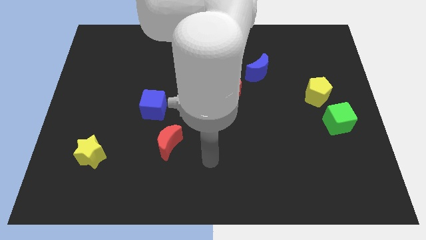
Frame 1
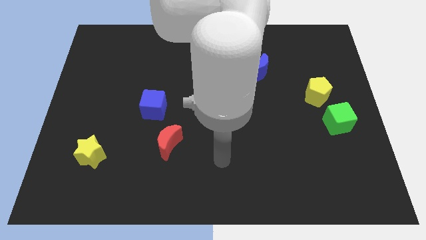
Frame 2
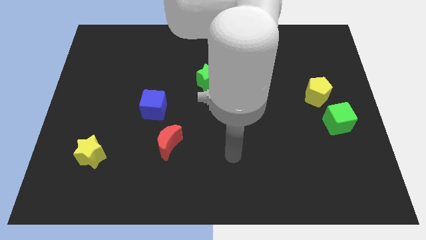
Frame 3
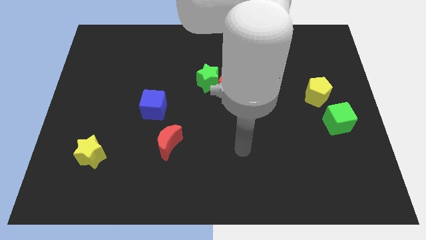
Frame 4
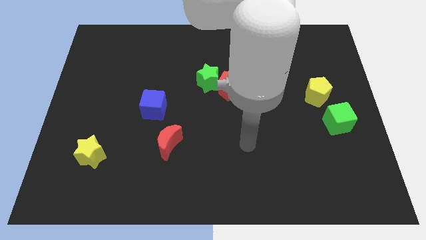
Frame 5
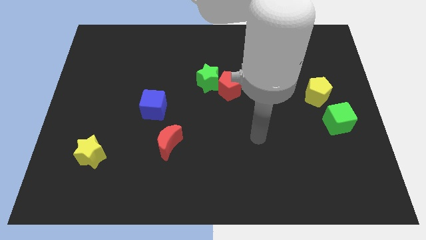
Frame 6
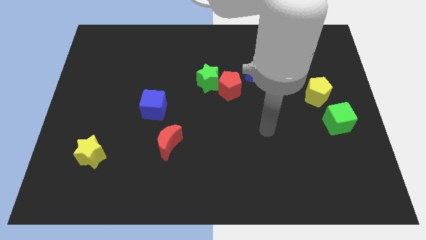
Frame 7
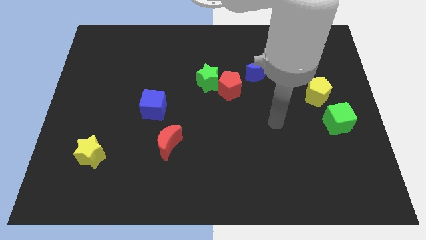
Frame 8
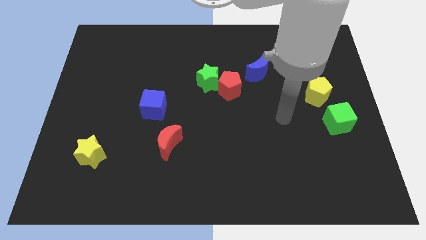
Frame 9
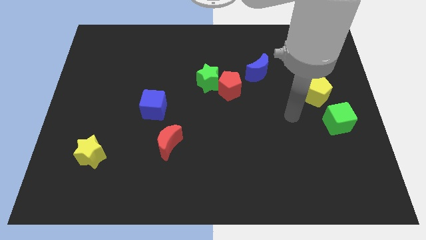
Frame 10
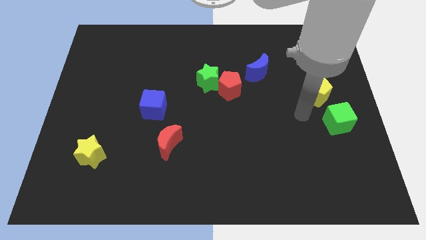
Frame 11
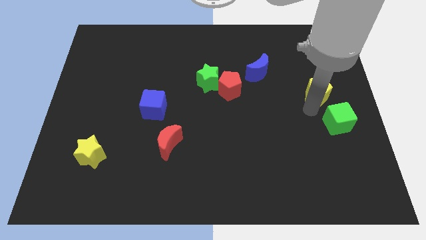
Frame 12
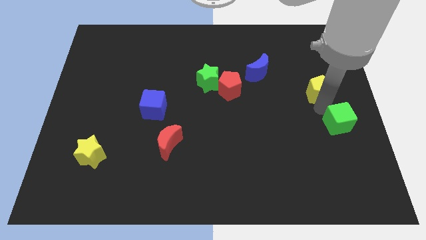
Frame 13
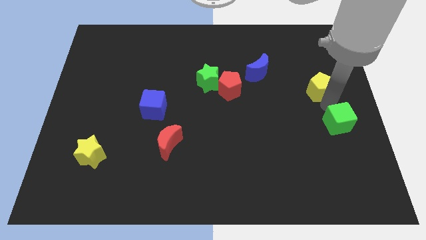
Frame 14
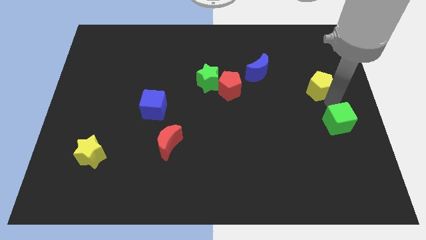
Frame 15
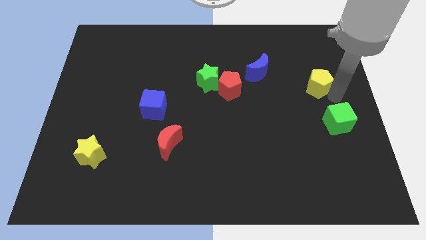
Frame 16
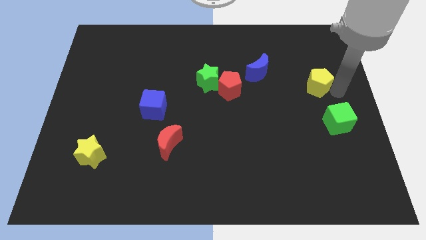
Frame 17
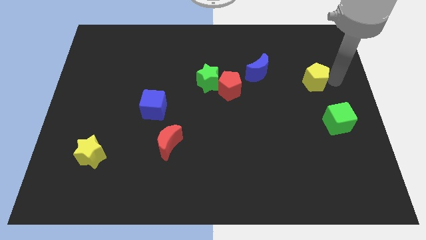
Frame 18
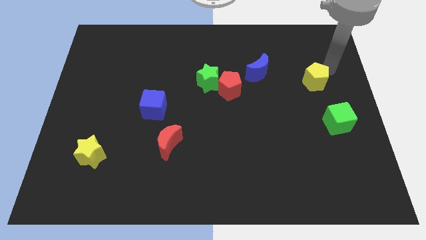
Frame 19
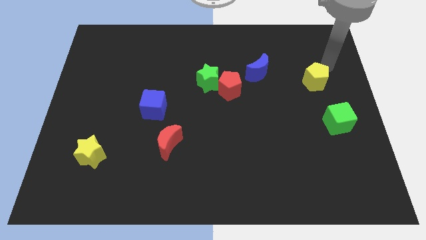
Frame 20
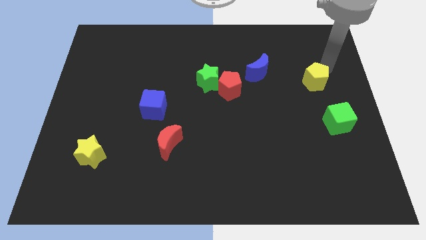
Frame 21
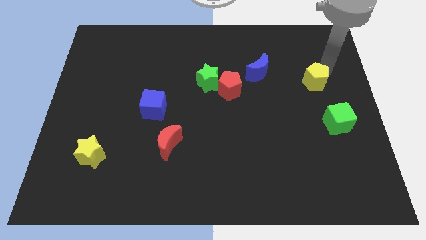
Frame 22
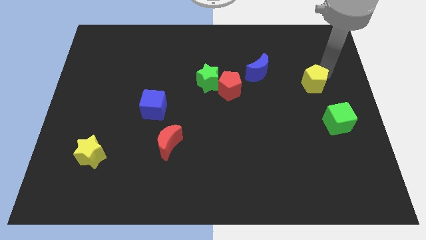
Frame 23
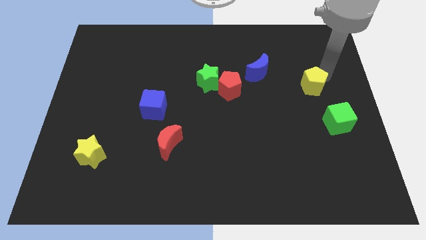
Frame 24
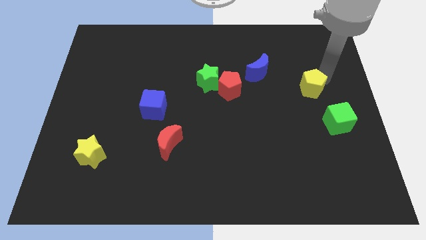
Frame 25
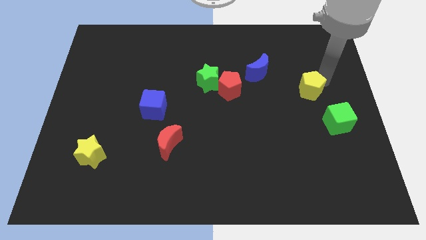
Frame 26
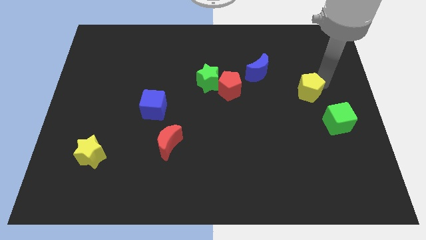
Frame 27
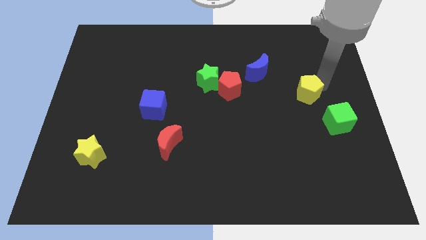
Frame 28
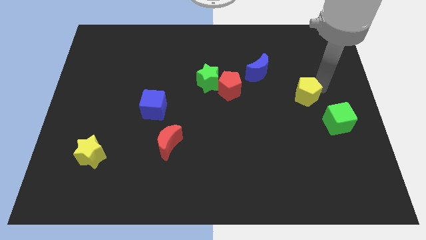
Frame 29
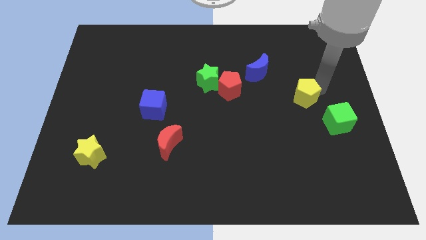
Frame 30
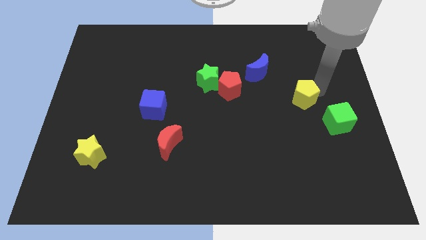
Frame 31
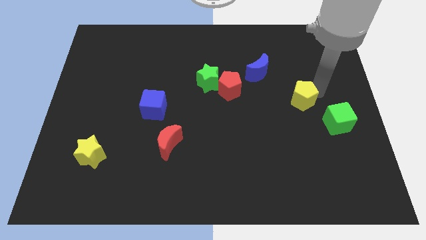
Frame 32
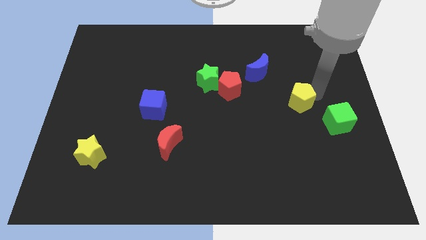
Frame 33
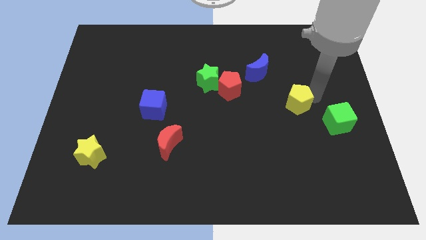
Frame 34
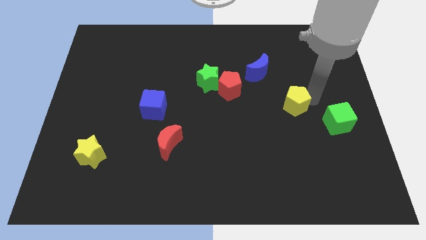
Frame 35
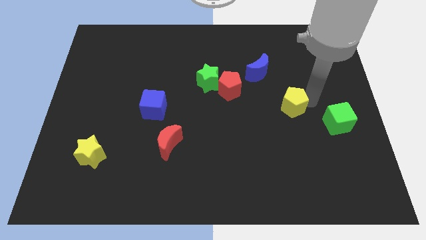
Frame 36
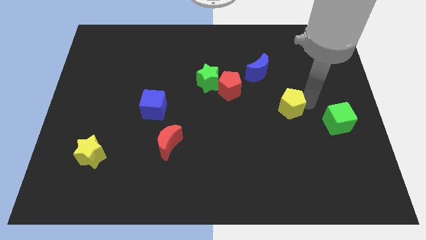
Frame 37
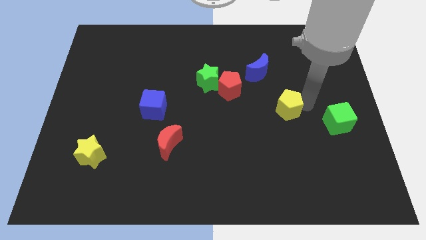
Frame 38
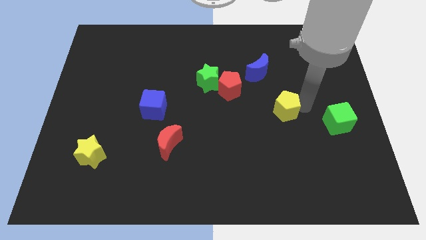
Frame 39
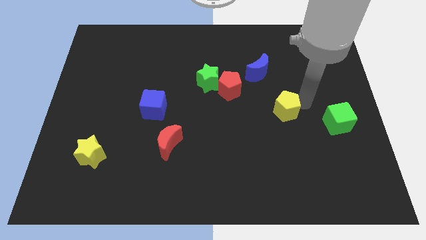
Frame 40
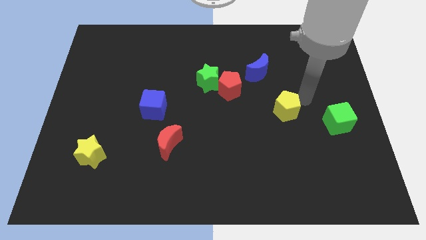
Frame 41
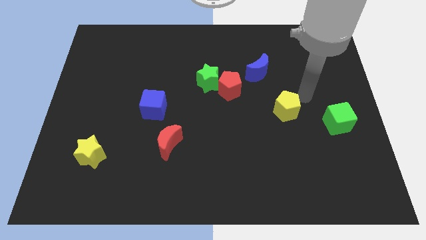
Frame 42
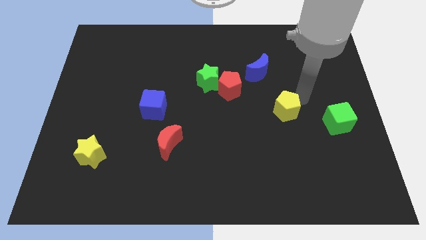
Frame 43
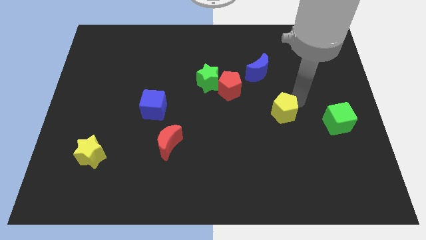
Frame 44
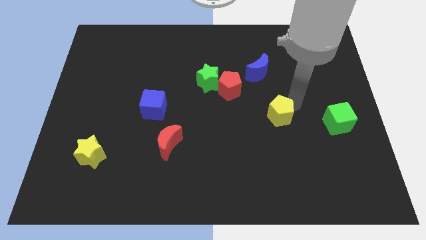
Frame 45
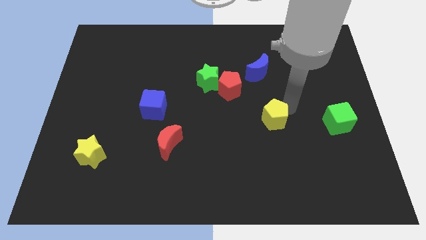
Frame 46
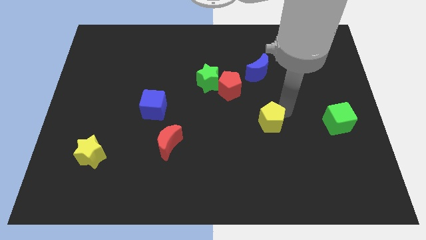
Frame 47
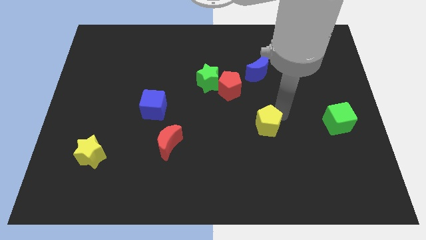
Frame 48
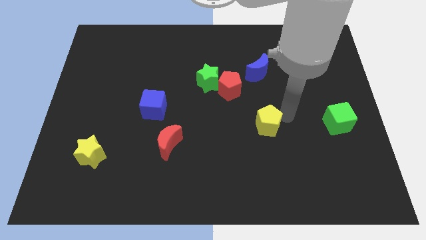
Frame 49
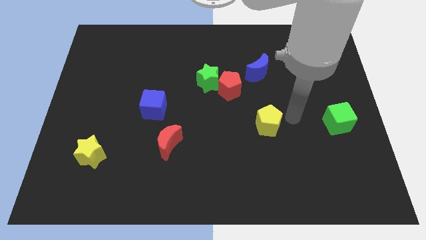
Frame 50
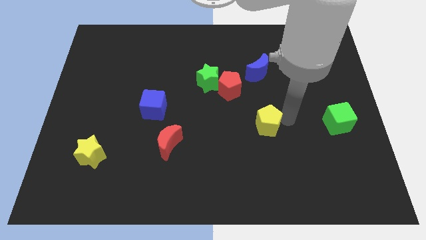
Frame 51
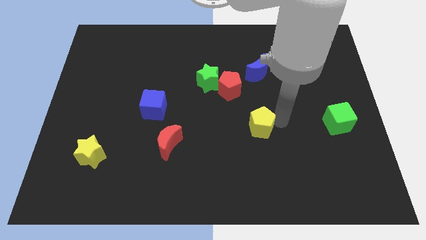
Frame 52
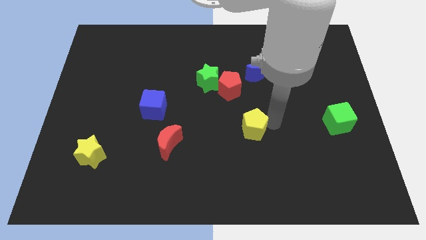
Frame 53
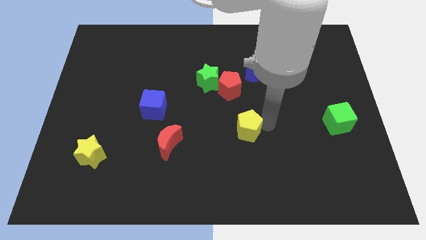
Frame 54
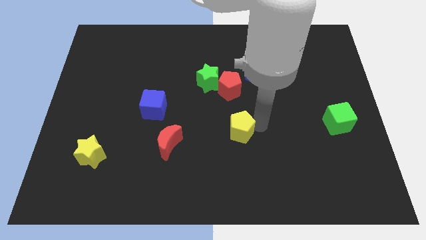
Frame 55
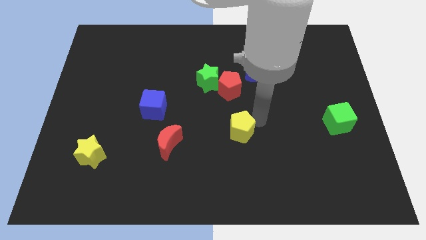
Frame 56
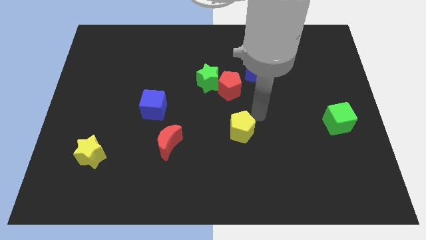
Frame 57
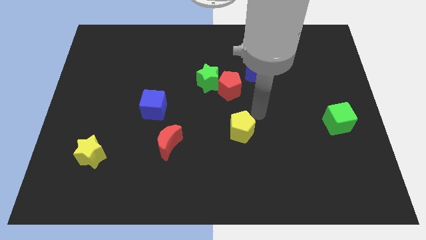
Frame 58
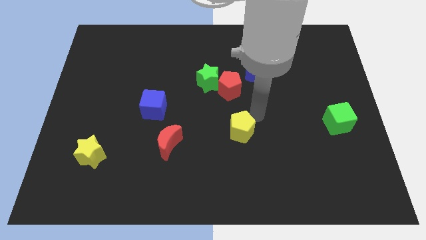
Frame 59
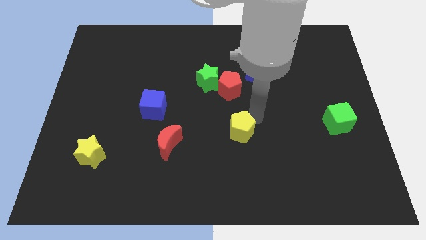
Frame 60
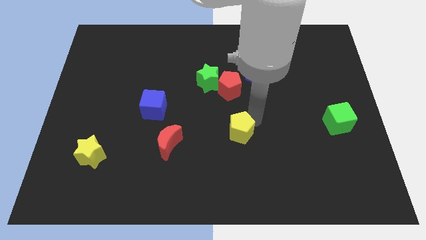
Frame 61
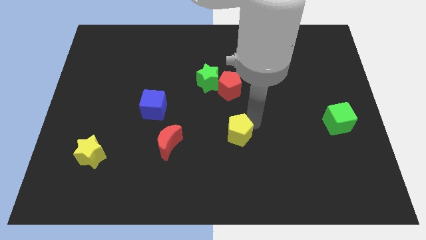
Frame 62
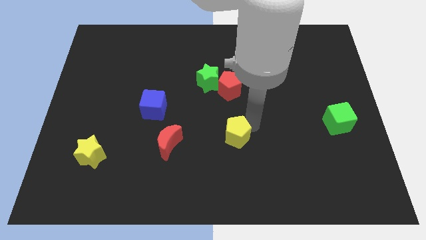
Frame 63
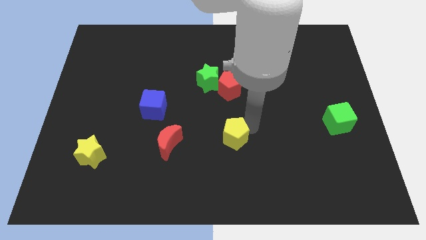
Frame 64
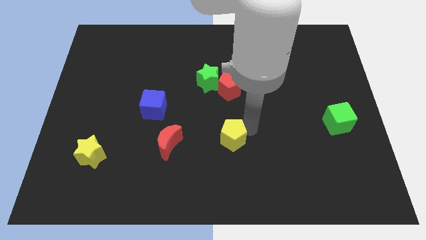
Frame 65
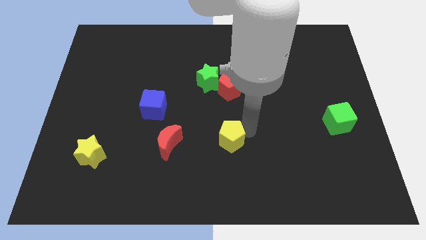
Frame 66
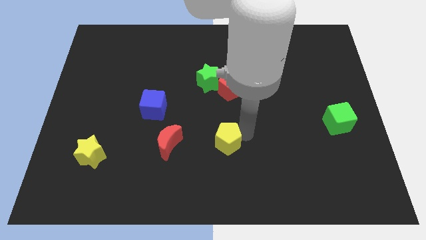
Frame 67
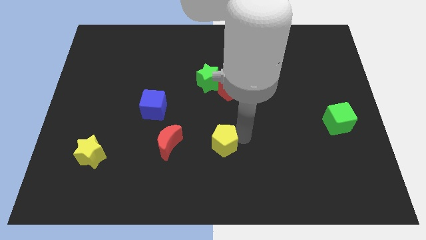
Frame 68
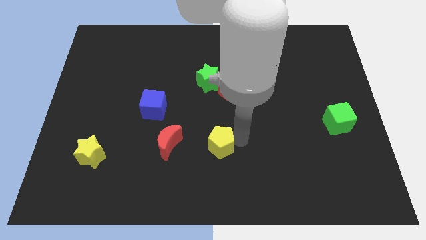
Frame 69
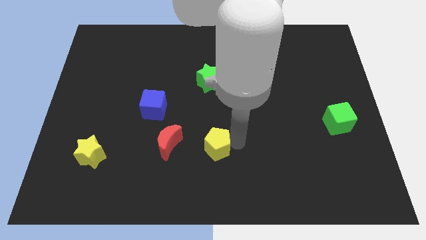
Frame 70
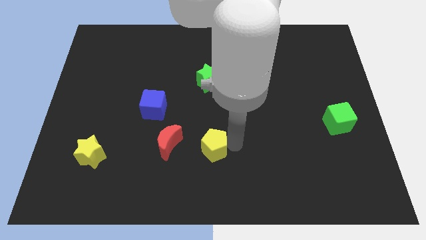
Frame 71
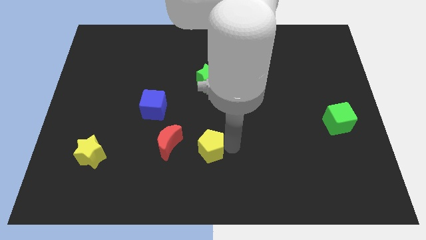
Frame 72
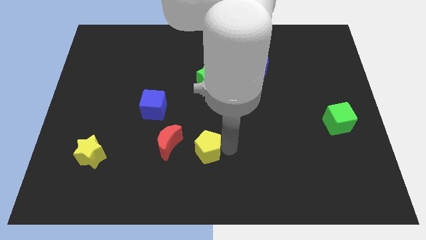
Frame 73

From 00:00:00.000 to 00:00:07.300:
move the yellow pentagon to the bottom right of the red moon

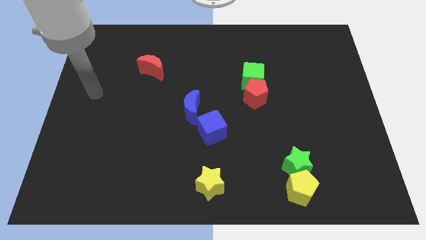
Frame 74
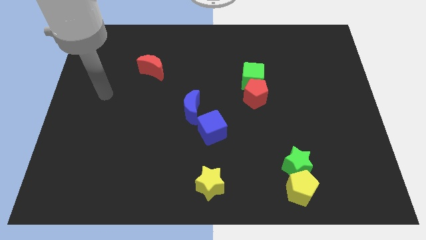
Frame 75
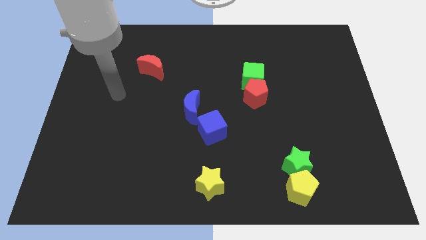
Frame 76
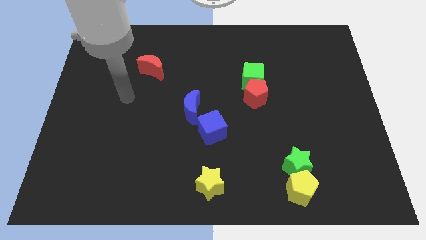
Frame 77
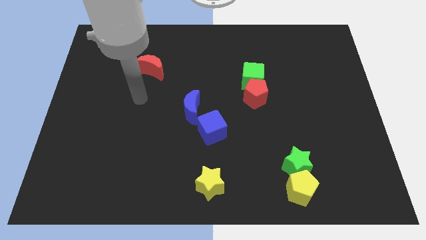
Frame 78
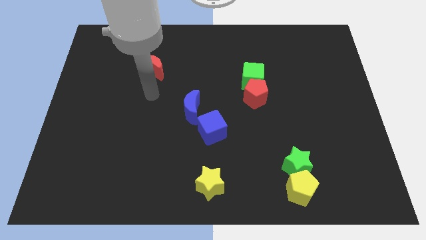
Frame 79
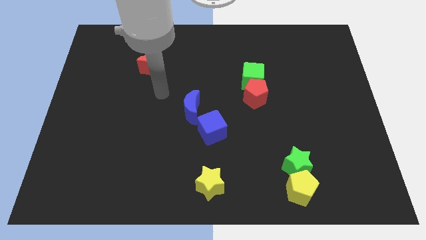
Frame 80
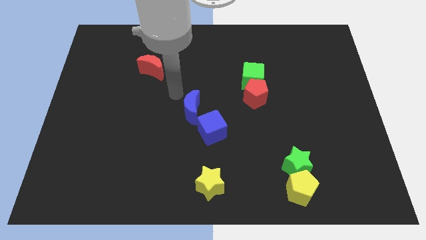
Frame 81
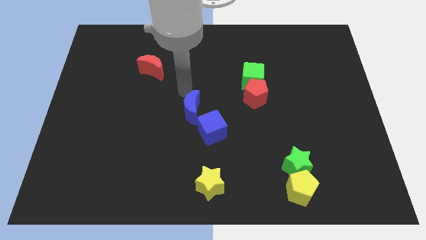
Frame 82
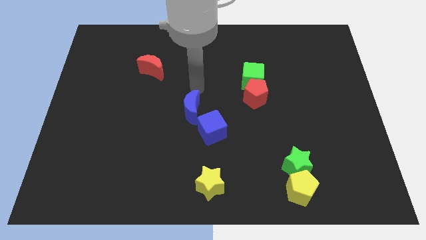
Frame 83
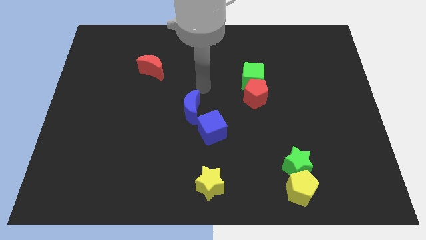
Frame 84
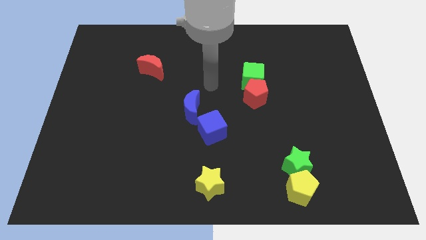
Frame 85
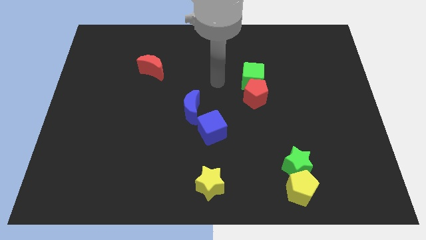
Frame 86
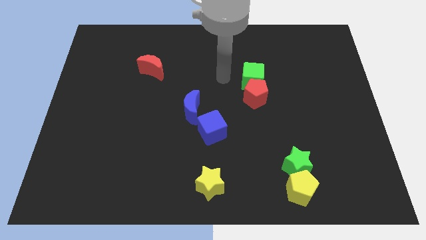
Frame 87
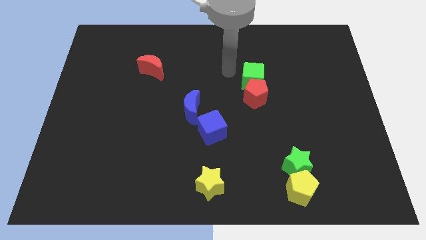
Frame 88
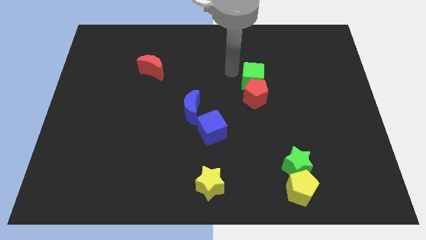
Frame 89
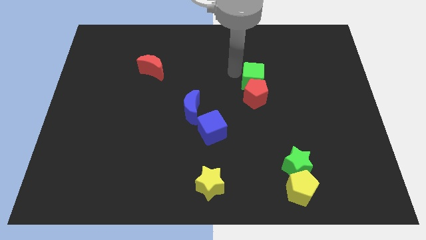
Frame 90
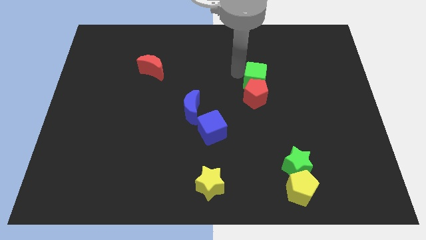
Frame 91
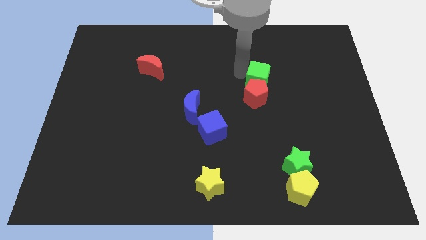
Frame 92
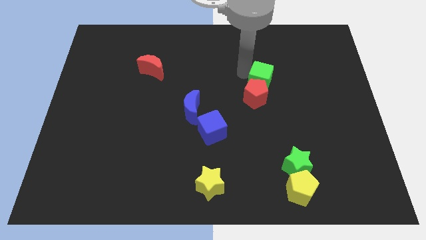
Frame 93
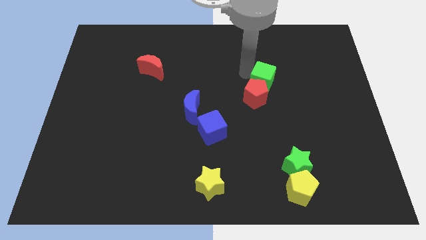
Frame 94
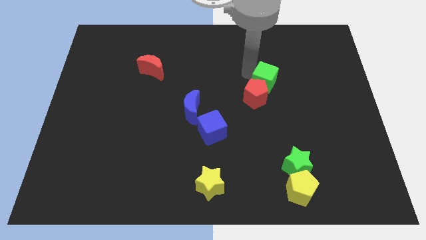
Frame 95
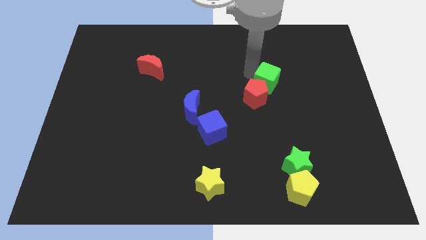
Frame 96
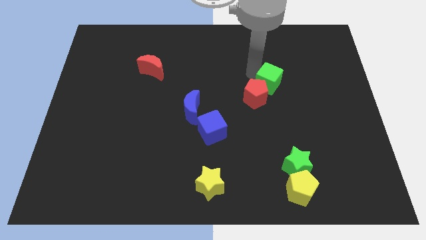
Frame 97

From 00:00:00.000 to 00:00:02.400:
slide the green cube right of the red pentagon
